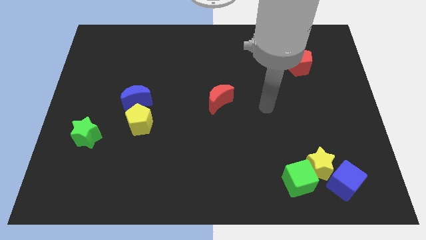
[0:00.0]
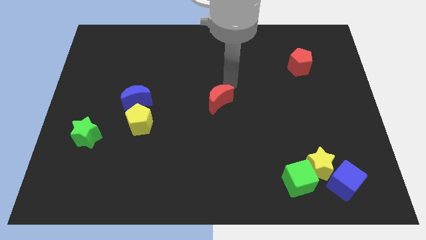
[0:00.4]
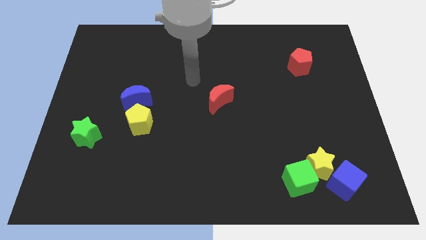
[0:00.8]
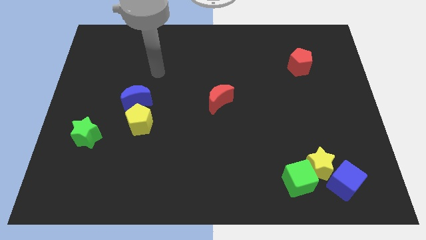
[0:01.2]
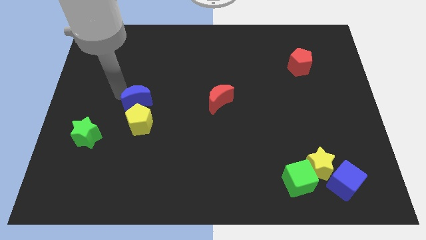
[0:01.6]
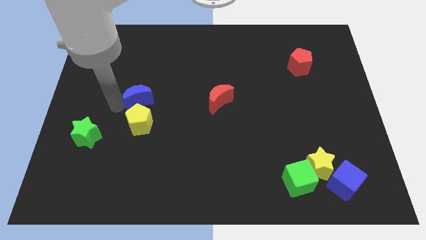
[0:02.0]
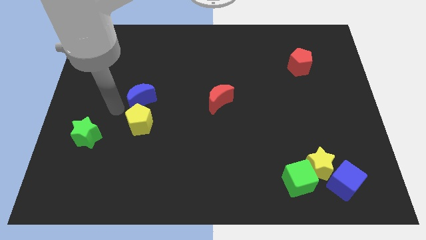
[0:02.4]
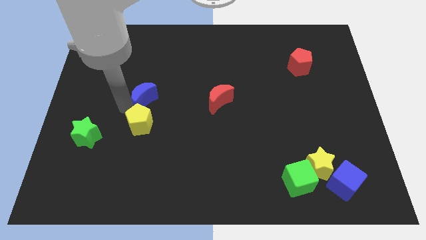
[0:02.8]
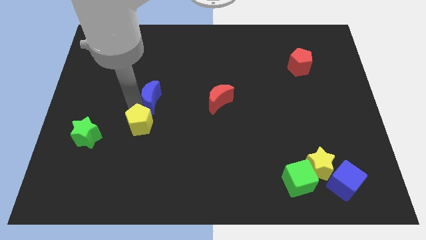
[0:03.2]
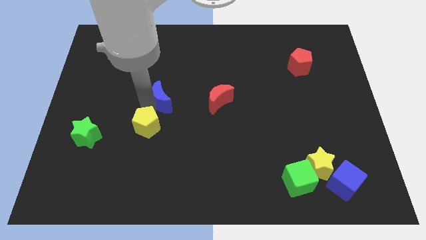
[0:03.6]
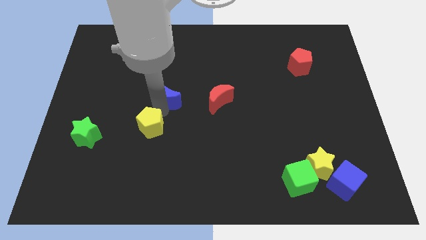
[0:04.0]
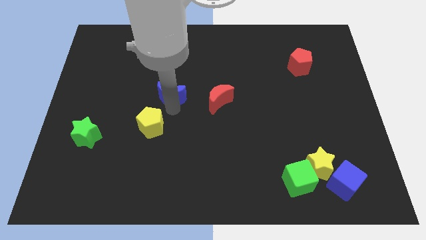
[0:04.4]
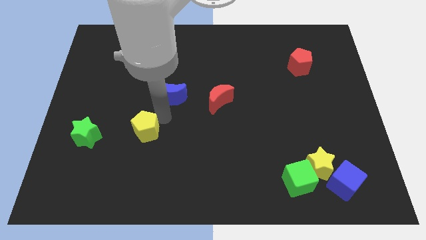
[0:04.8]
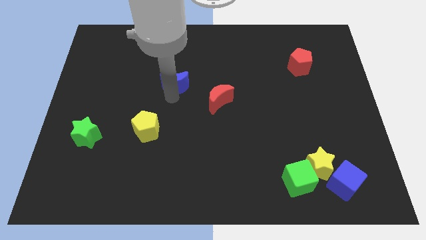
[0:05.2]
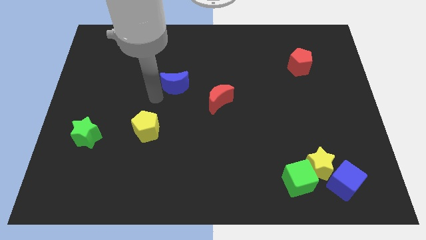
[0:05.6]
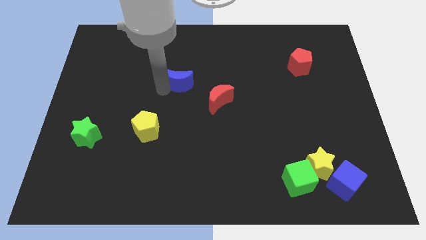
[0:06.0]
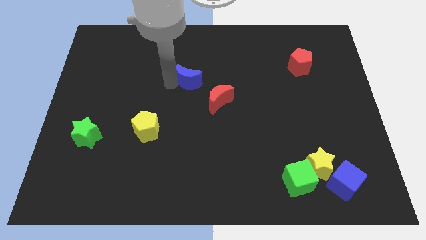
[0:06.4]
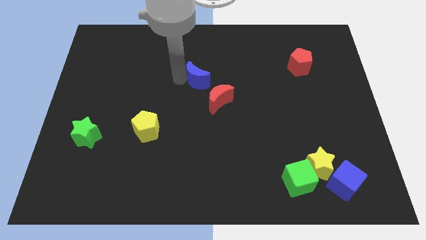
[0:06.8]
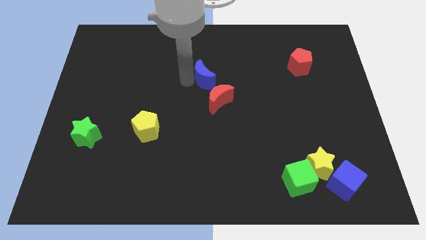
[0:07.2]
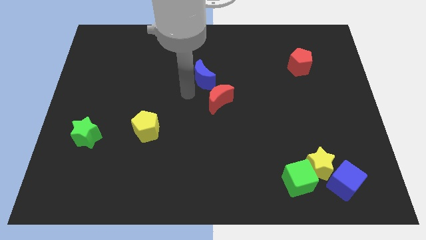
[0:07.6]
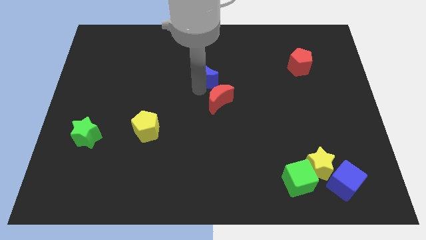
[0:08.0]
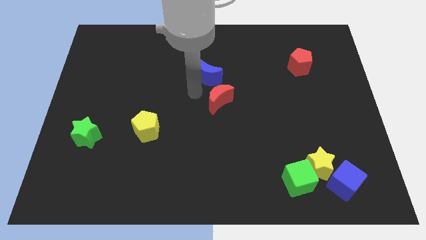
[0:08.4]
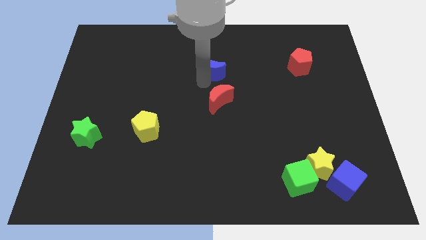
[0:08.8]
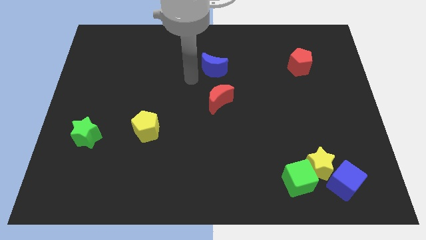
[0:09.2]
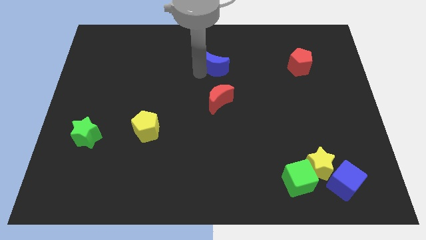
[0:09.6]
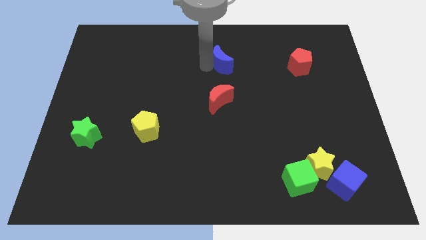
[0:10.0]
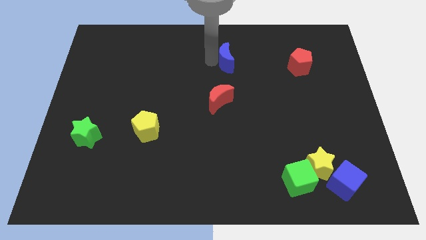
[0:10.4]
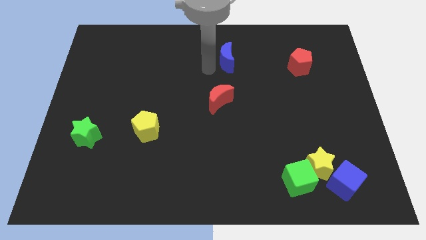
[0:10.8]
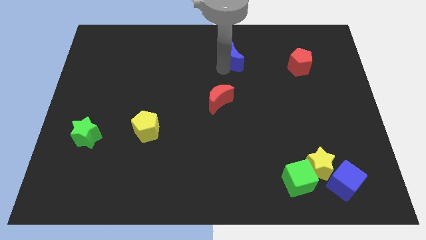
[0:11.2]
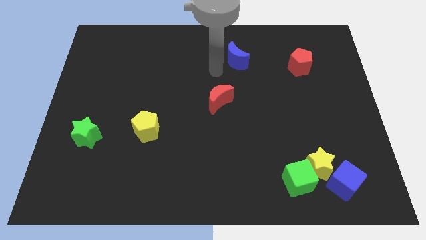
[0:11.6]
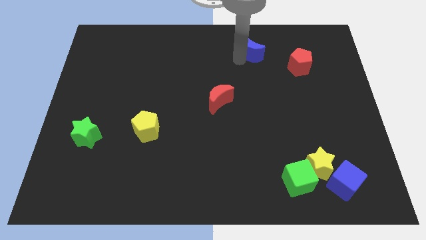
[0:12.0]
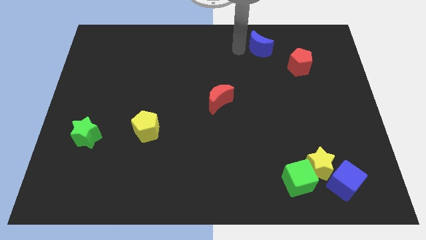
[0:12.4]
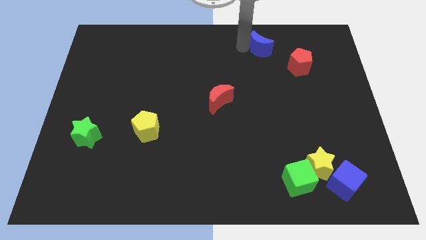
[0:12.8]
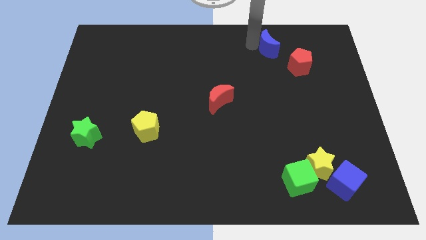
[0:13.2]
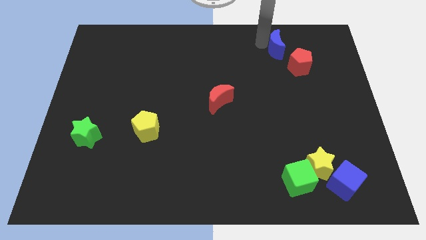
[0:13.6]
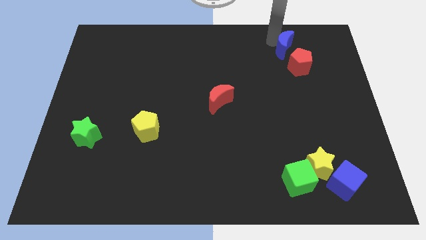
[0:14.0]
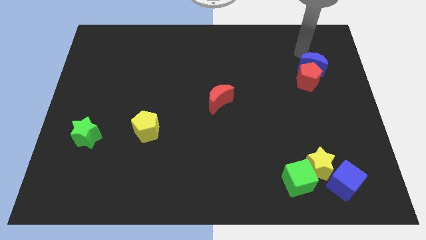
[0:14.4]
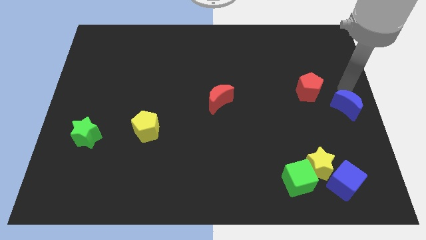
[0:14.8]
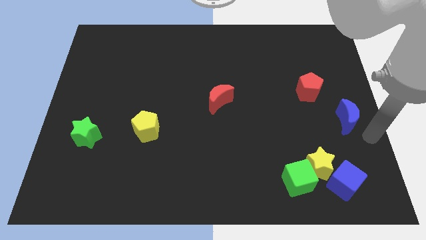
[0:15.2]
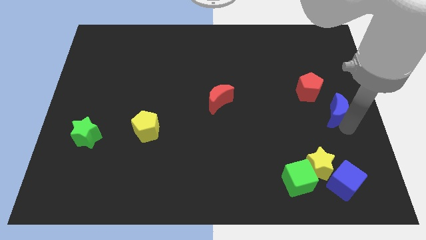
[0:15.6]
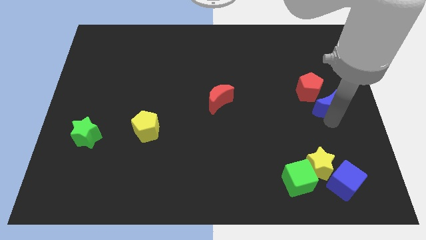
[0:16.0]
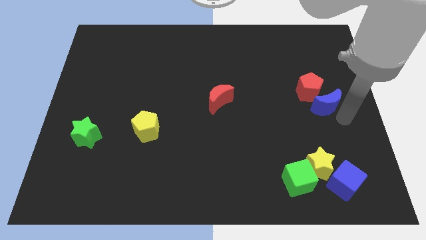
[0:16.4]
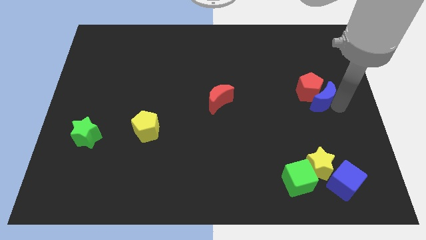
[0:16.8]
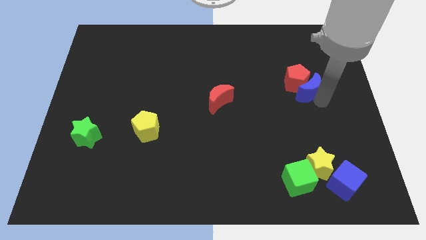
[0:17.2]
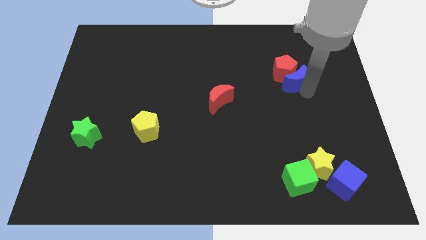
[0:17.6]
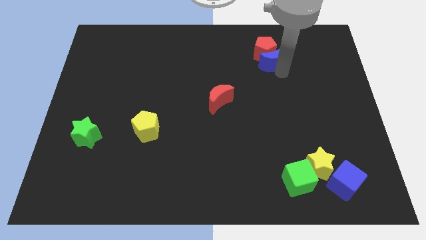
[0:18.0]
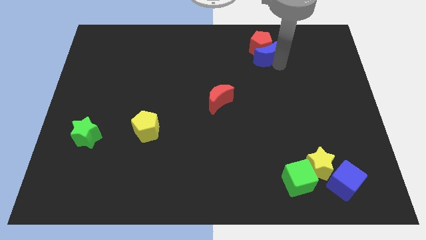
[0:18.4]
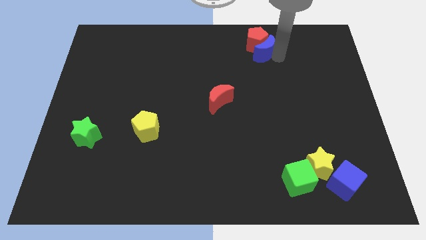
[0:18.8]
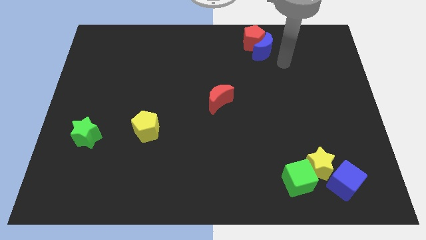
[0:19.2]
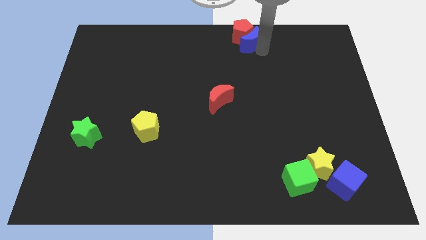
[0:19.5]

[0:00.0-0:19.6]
slide the blue moon to the top side

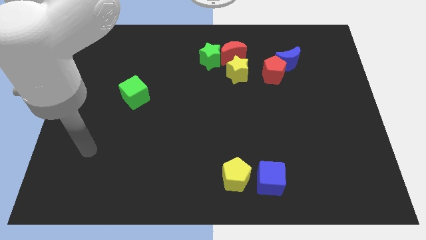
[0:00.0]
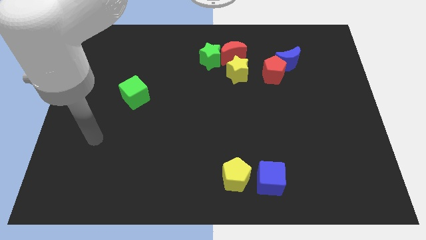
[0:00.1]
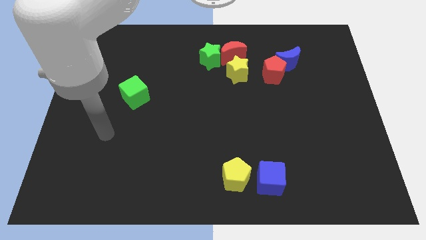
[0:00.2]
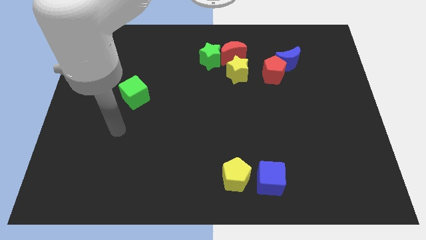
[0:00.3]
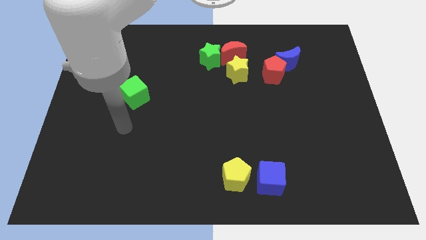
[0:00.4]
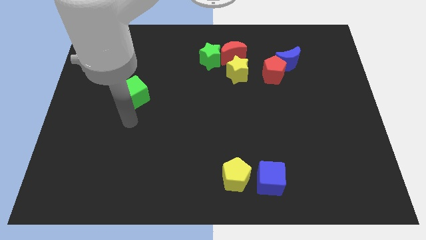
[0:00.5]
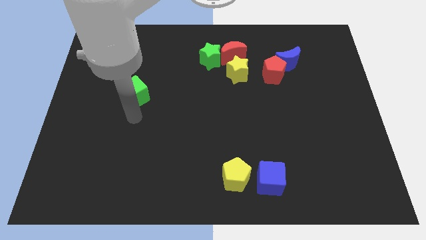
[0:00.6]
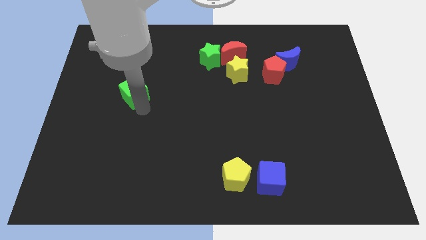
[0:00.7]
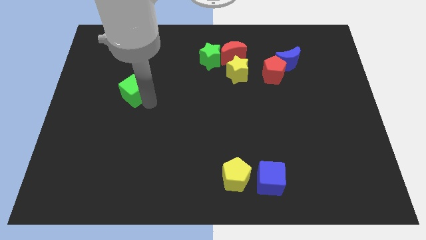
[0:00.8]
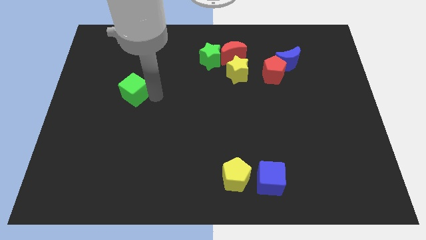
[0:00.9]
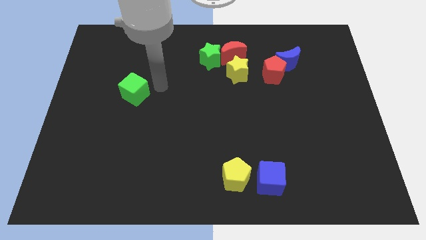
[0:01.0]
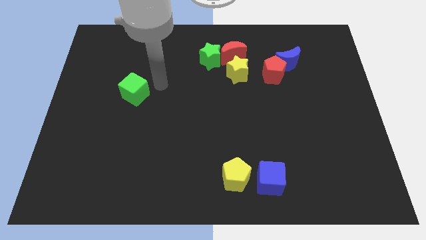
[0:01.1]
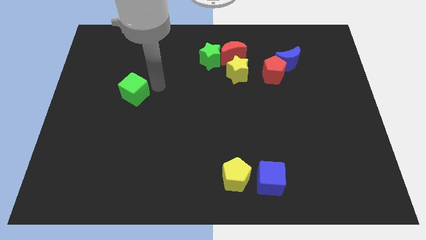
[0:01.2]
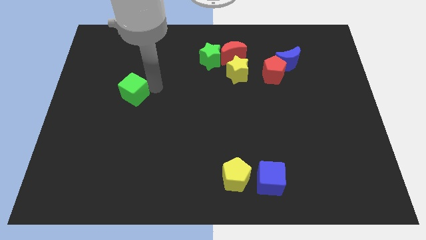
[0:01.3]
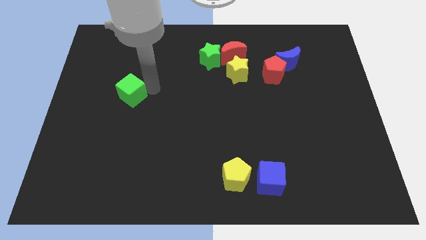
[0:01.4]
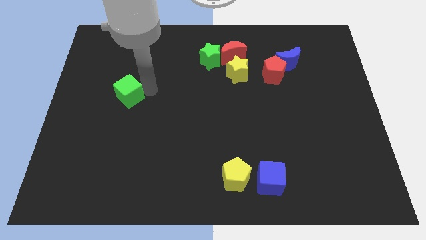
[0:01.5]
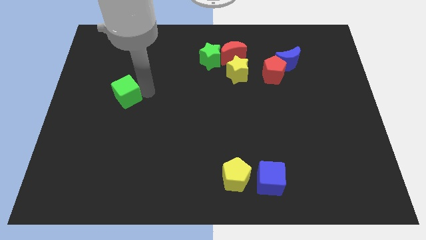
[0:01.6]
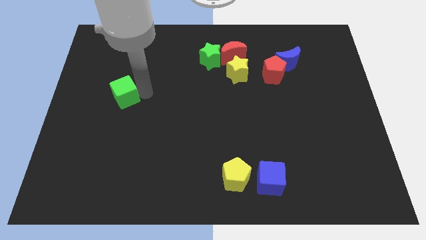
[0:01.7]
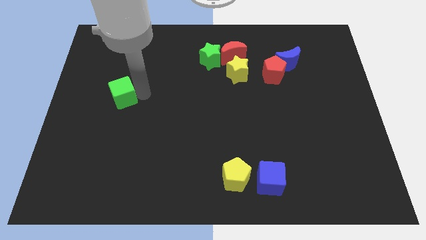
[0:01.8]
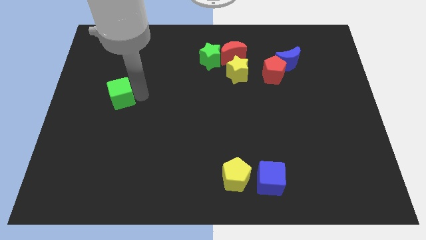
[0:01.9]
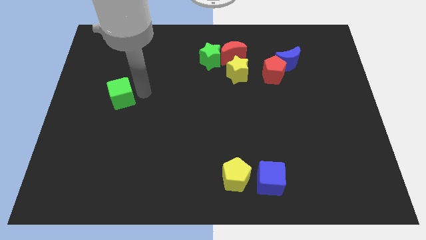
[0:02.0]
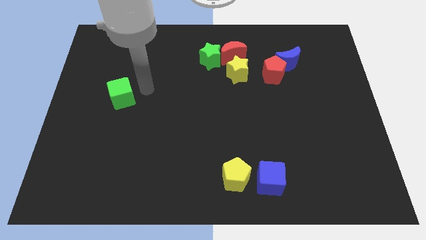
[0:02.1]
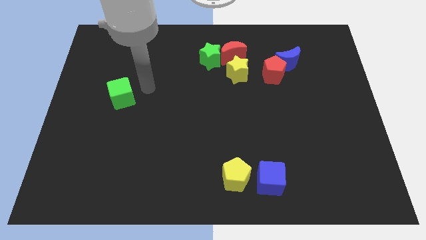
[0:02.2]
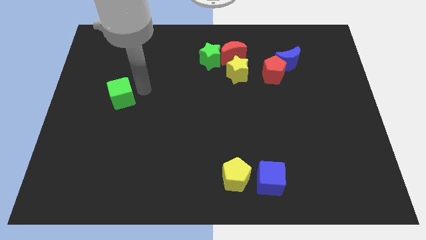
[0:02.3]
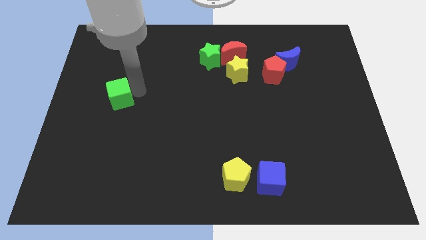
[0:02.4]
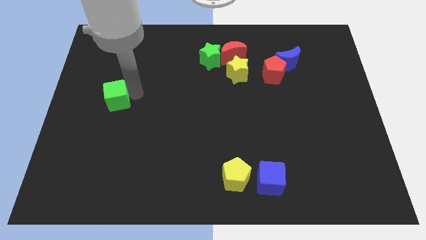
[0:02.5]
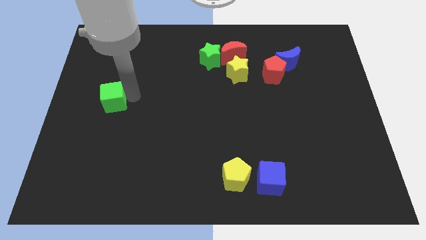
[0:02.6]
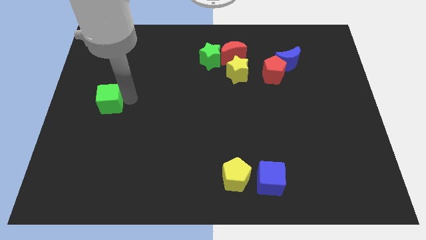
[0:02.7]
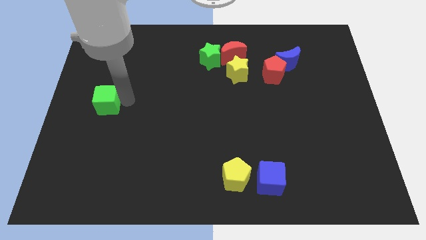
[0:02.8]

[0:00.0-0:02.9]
push the green cube to the center left
